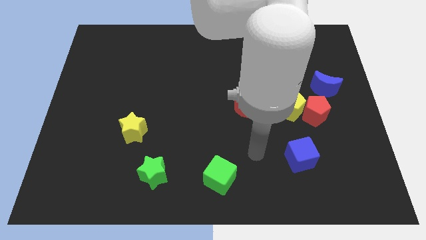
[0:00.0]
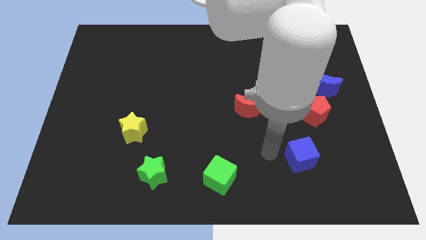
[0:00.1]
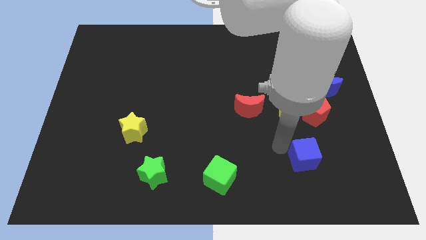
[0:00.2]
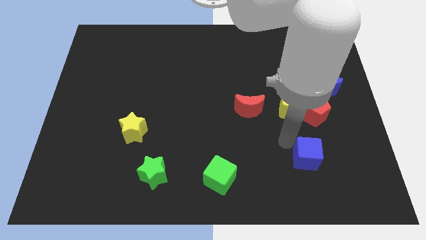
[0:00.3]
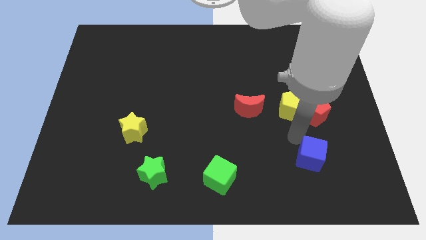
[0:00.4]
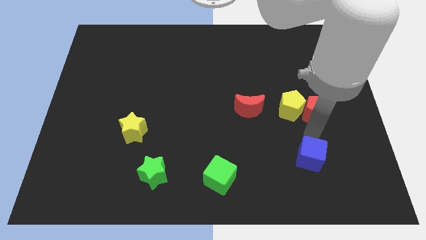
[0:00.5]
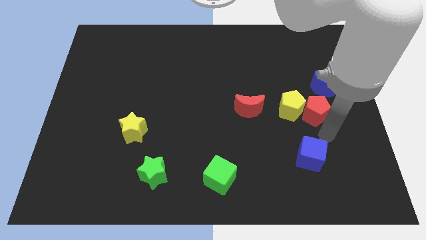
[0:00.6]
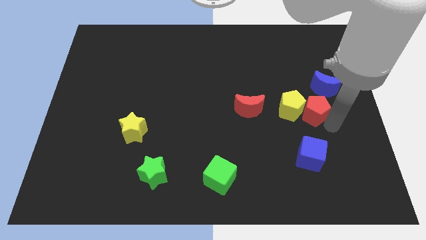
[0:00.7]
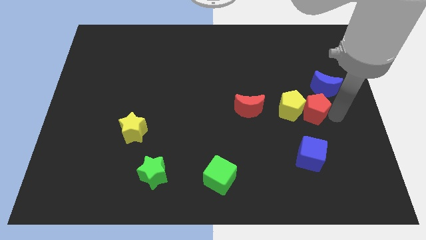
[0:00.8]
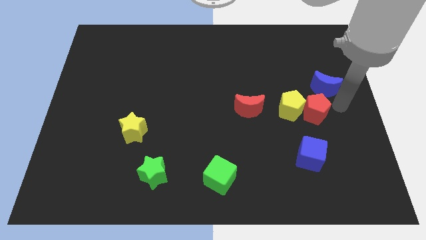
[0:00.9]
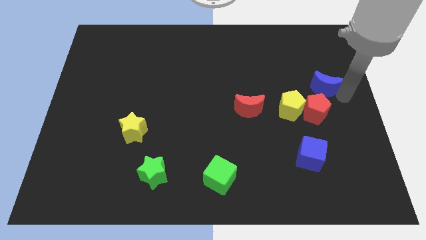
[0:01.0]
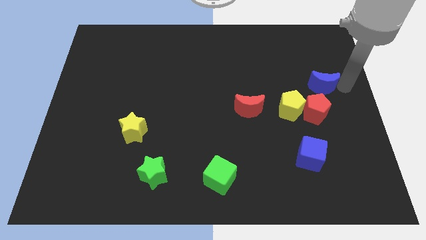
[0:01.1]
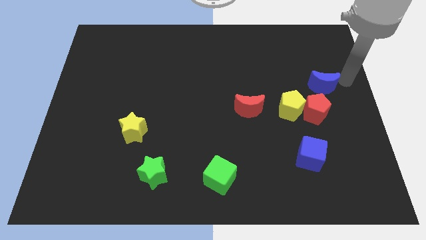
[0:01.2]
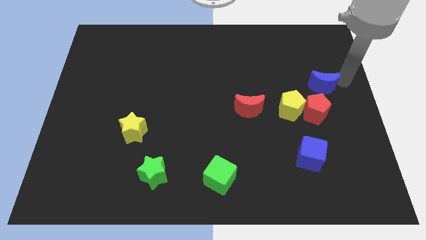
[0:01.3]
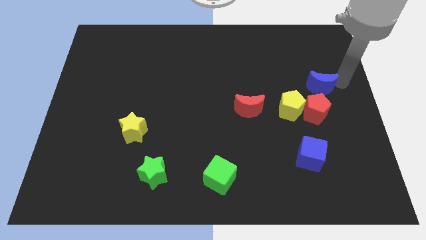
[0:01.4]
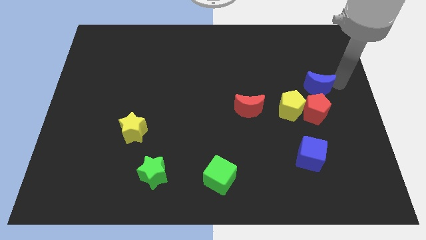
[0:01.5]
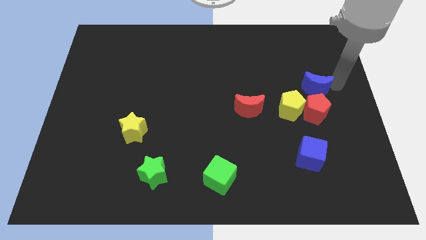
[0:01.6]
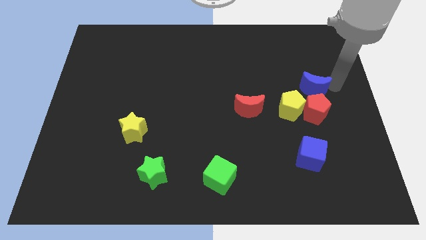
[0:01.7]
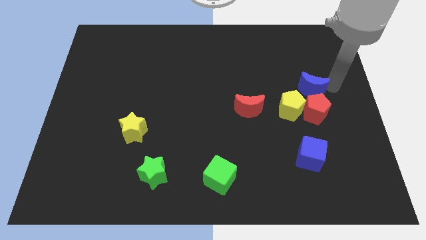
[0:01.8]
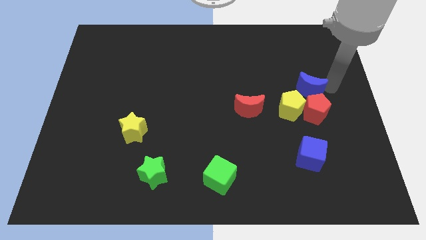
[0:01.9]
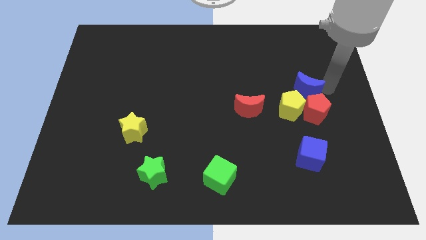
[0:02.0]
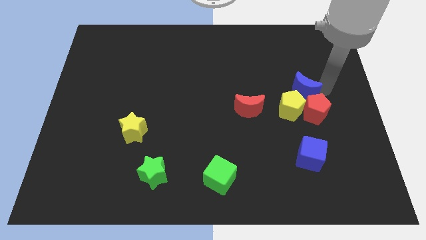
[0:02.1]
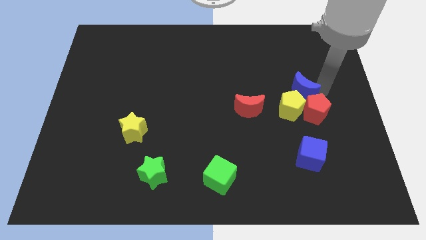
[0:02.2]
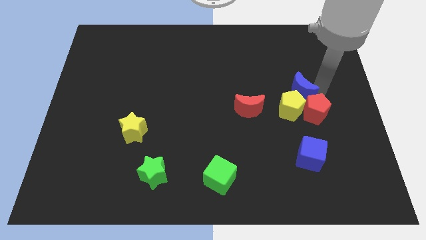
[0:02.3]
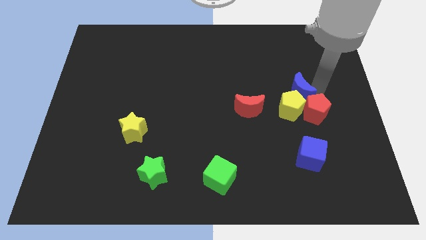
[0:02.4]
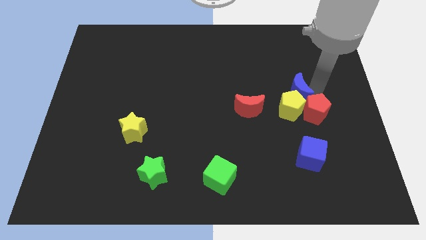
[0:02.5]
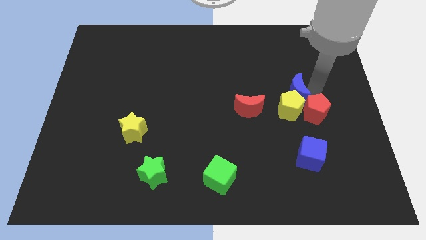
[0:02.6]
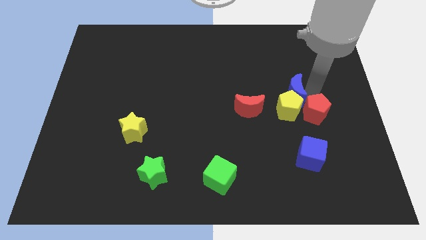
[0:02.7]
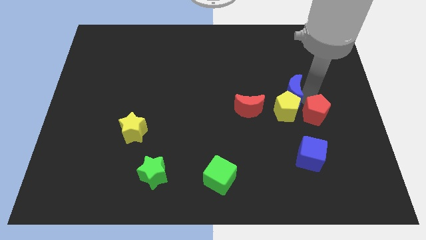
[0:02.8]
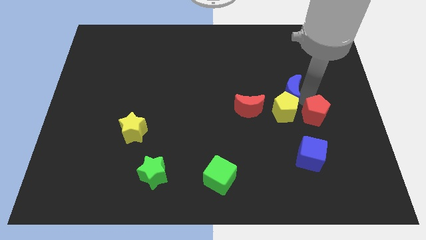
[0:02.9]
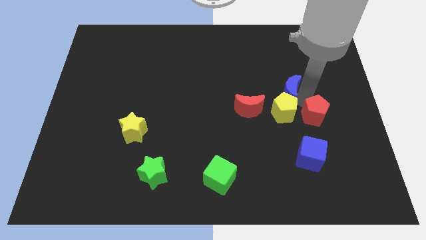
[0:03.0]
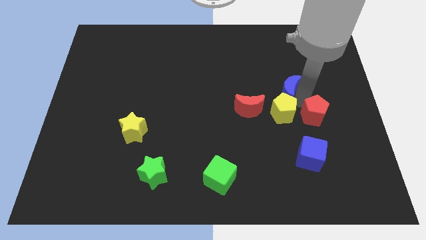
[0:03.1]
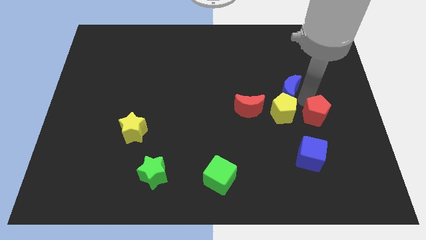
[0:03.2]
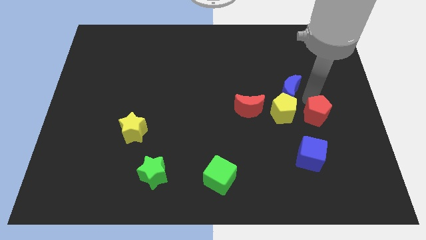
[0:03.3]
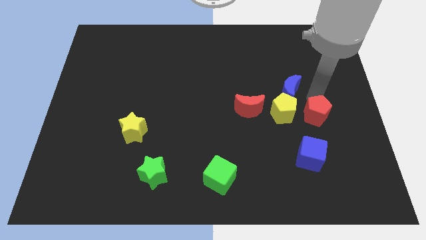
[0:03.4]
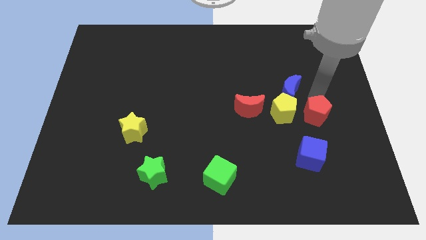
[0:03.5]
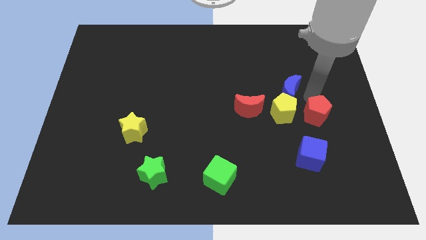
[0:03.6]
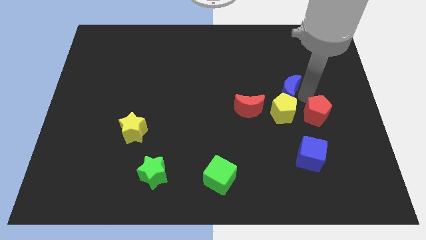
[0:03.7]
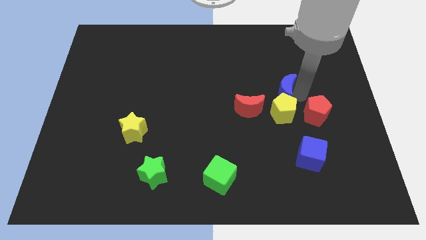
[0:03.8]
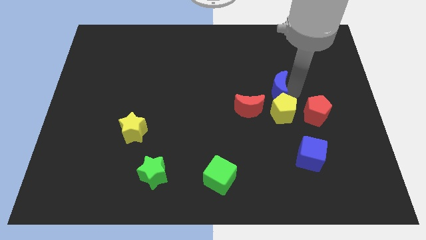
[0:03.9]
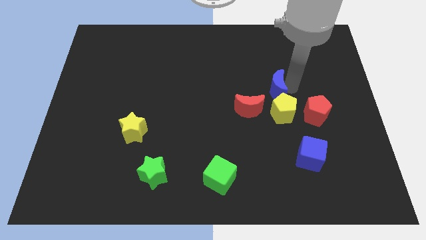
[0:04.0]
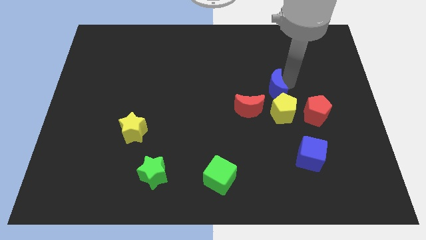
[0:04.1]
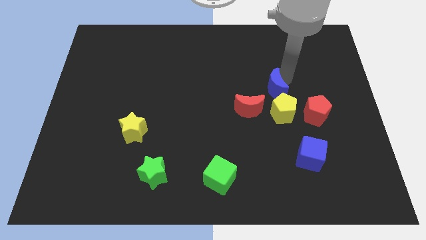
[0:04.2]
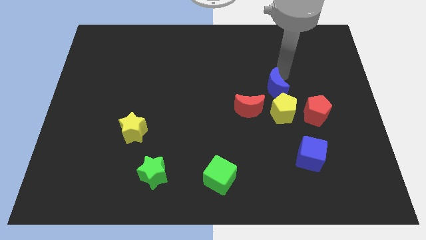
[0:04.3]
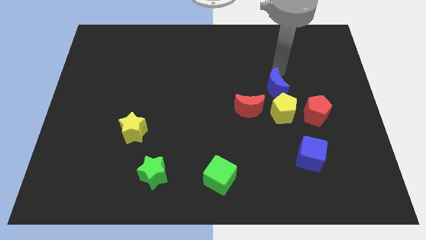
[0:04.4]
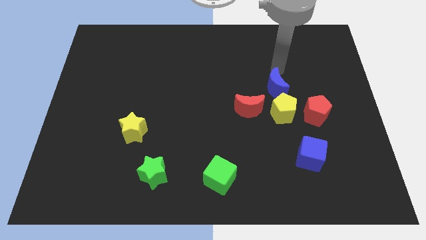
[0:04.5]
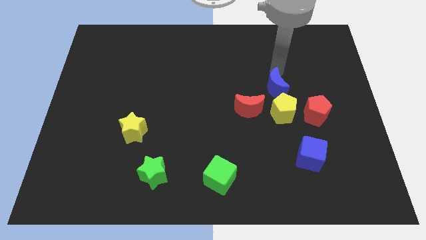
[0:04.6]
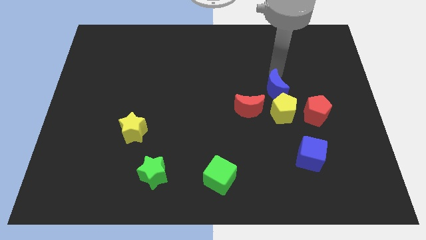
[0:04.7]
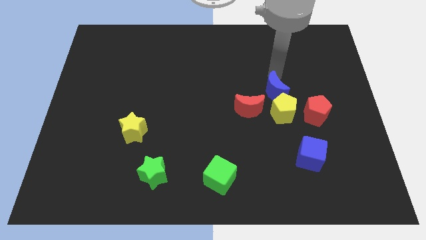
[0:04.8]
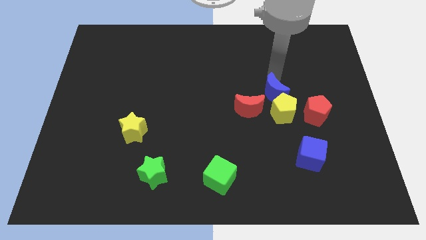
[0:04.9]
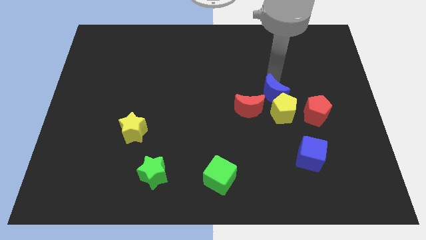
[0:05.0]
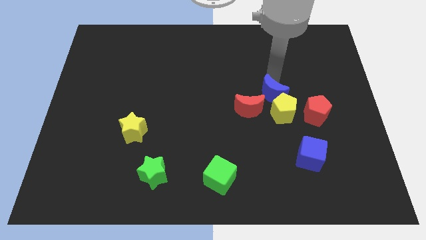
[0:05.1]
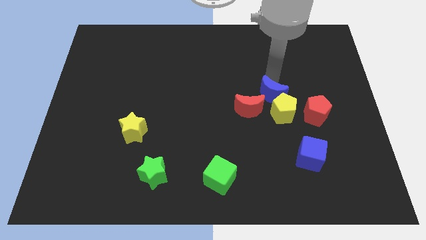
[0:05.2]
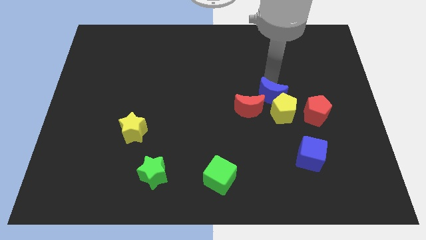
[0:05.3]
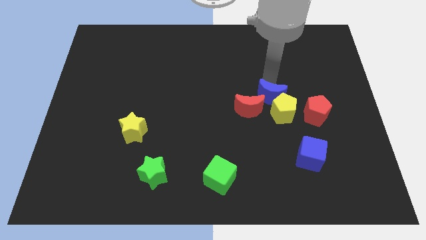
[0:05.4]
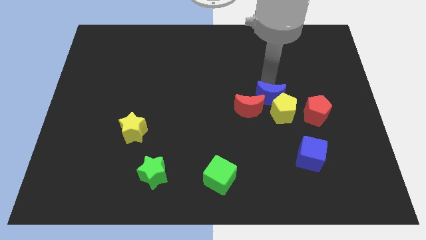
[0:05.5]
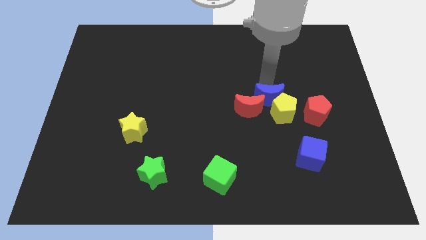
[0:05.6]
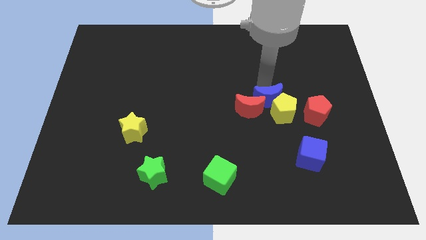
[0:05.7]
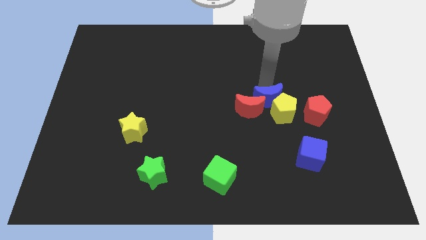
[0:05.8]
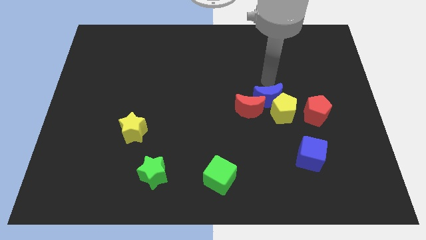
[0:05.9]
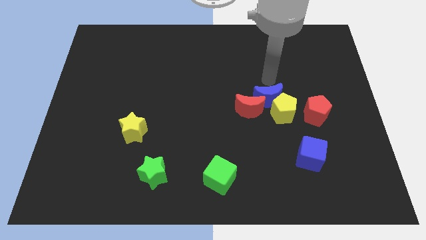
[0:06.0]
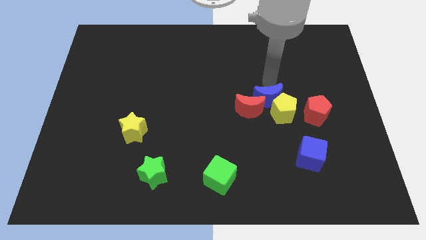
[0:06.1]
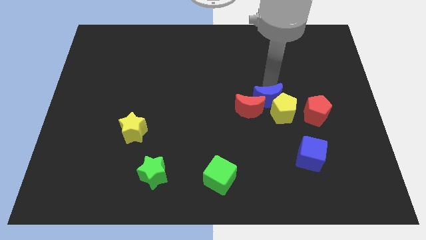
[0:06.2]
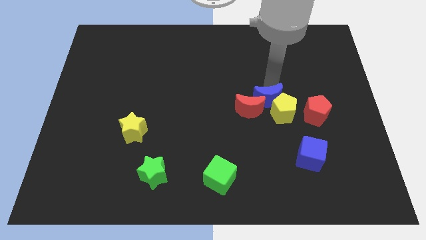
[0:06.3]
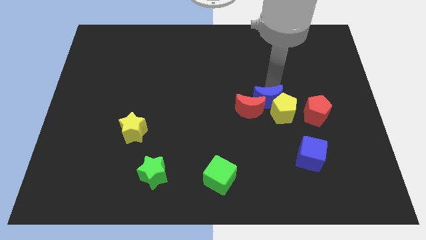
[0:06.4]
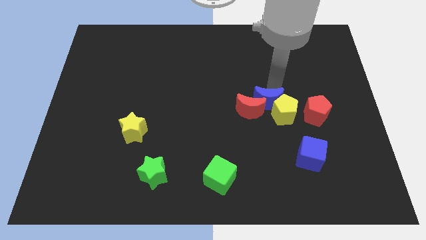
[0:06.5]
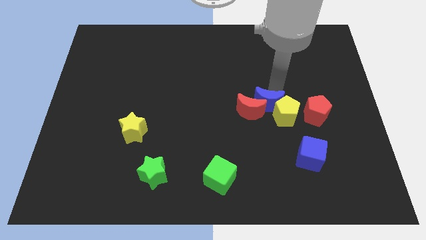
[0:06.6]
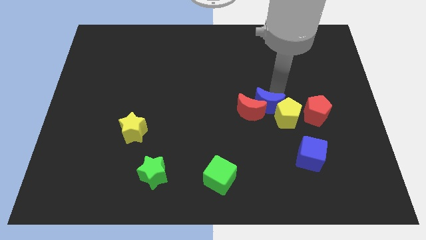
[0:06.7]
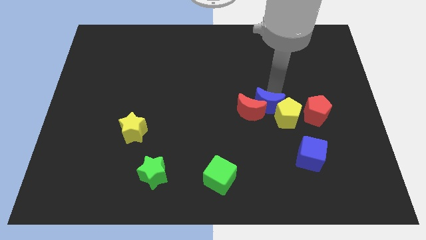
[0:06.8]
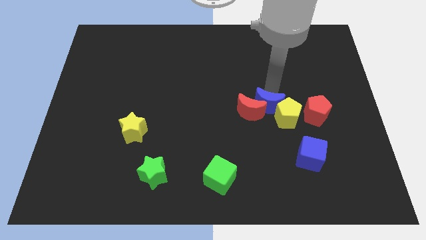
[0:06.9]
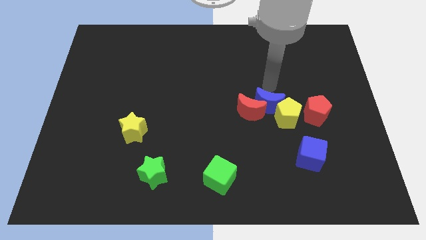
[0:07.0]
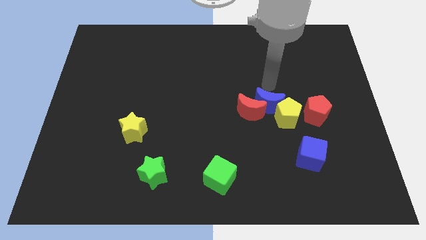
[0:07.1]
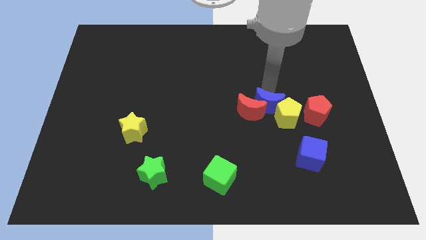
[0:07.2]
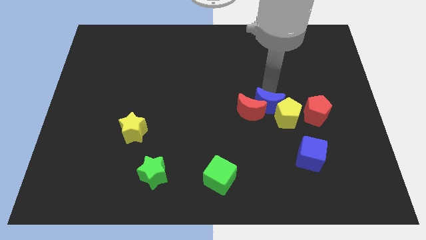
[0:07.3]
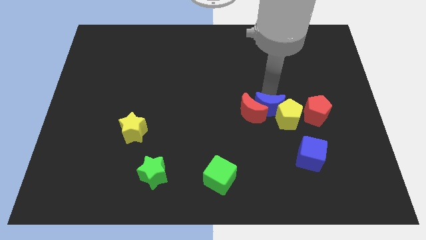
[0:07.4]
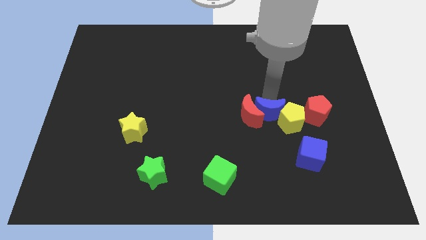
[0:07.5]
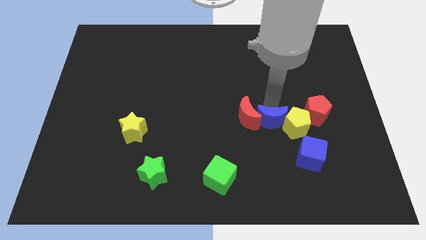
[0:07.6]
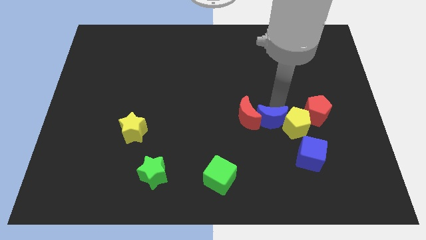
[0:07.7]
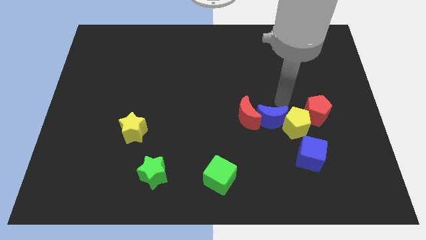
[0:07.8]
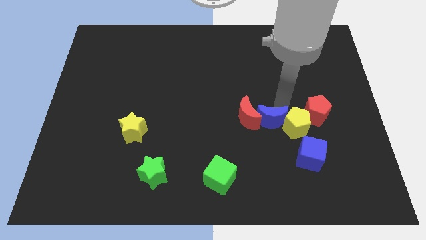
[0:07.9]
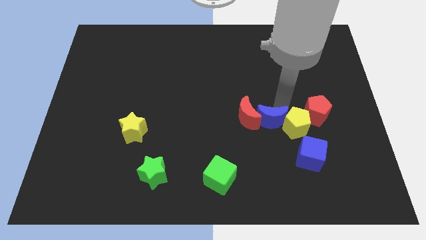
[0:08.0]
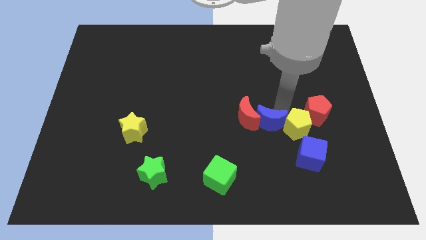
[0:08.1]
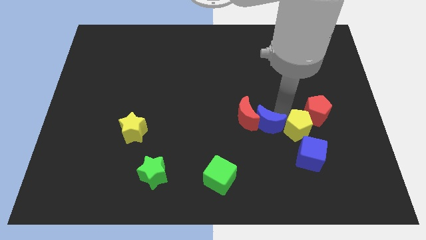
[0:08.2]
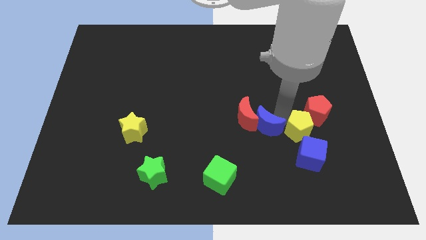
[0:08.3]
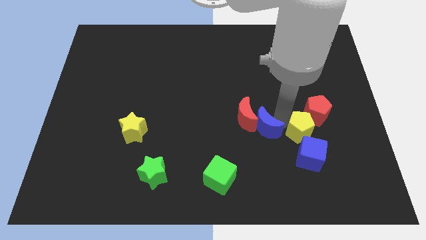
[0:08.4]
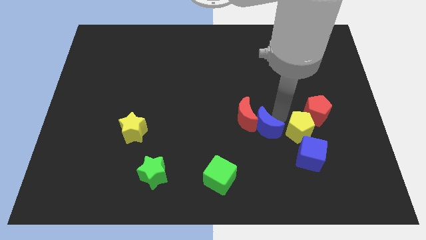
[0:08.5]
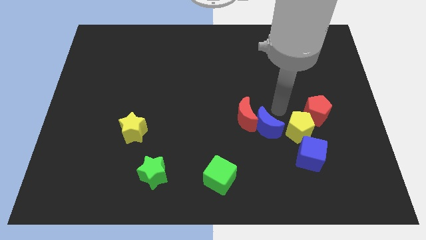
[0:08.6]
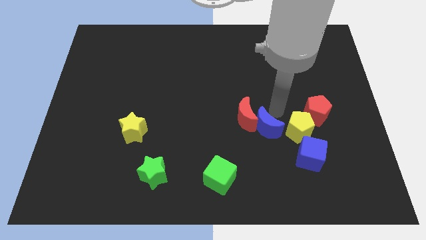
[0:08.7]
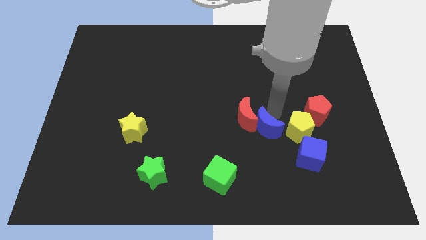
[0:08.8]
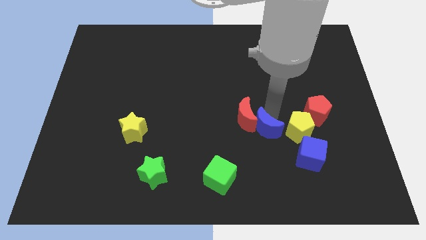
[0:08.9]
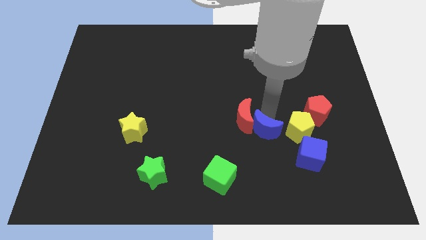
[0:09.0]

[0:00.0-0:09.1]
move the blue moon to the bottom side of the red moon
